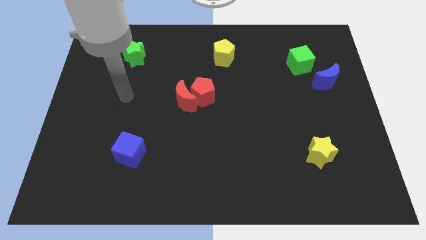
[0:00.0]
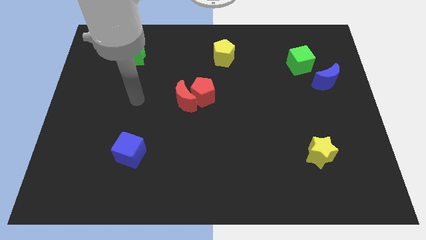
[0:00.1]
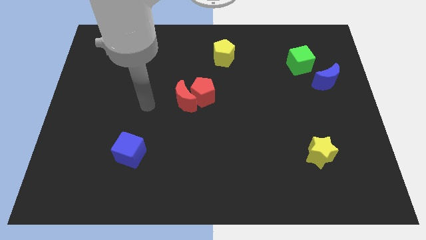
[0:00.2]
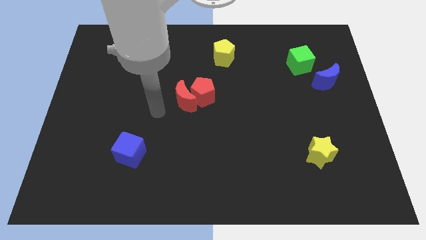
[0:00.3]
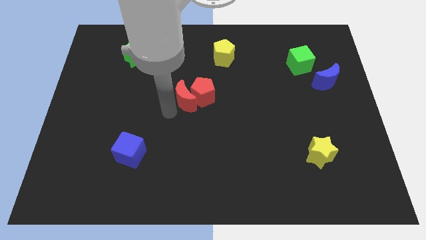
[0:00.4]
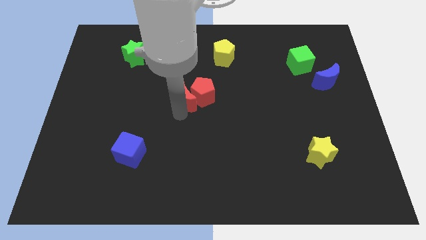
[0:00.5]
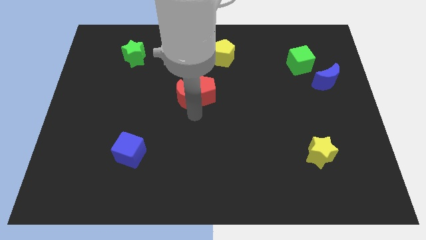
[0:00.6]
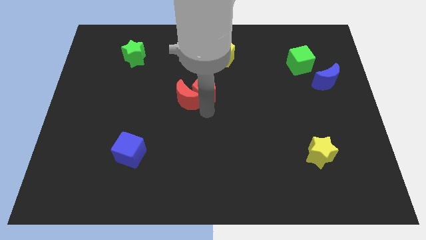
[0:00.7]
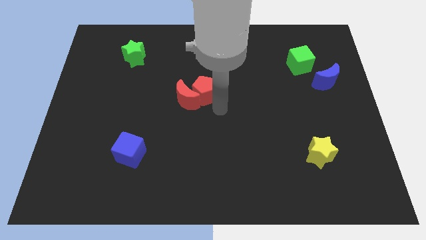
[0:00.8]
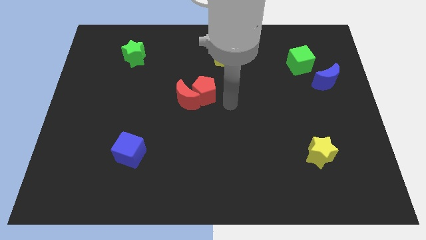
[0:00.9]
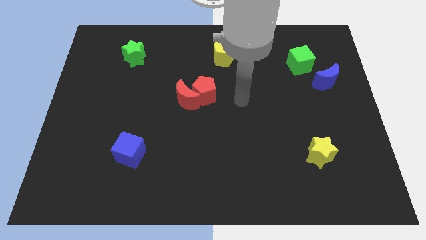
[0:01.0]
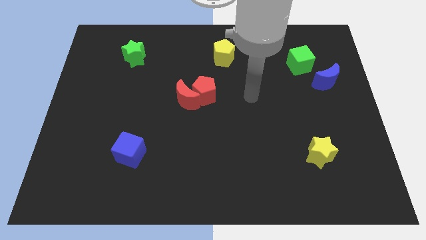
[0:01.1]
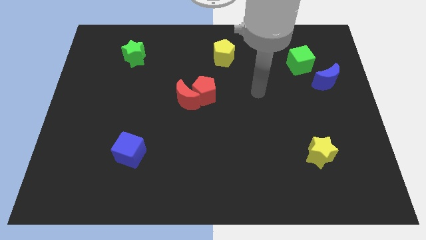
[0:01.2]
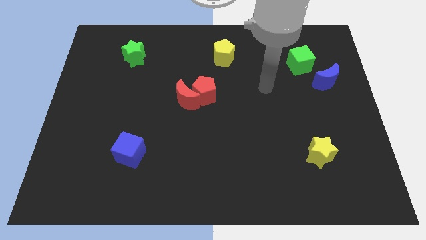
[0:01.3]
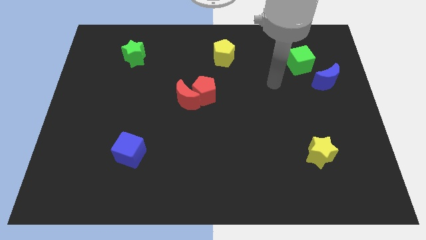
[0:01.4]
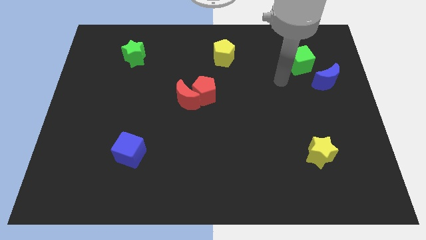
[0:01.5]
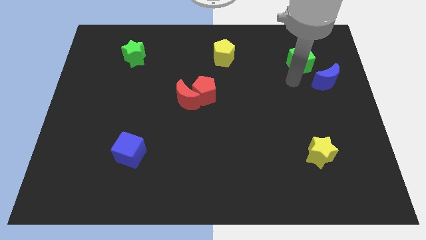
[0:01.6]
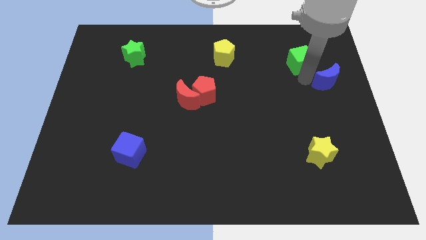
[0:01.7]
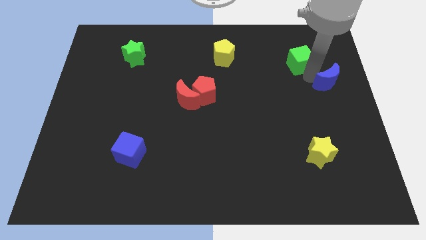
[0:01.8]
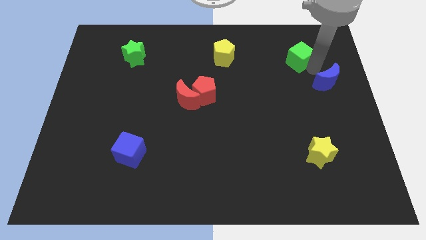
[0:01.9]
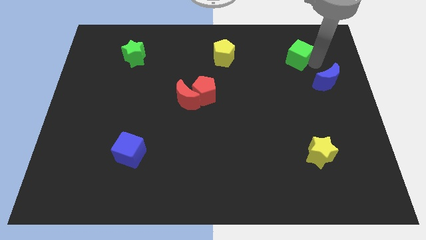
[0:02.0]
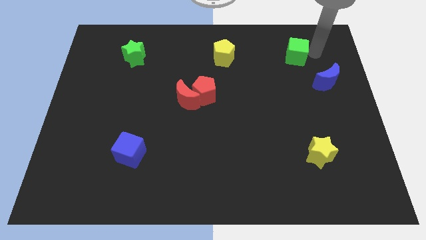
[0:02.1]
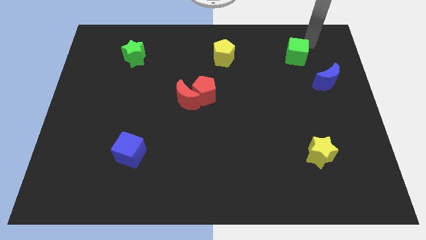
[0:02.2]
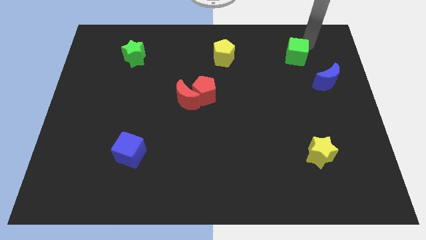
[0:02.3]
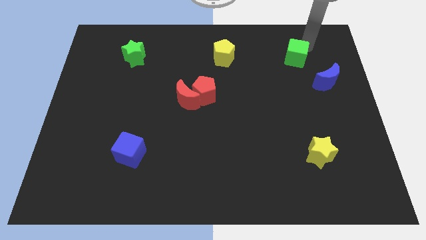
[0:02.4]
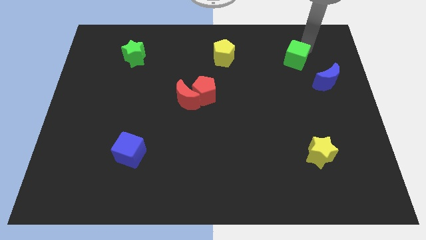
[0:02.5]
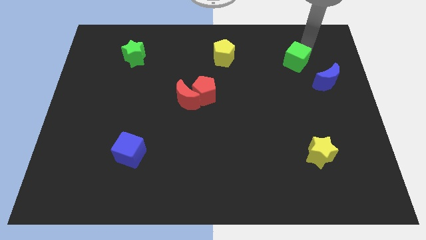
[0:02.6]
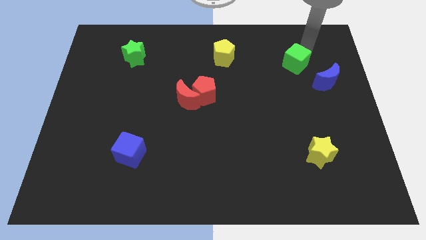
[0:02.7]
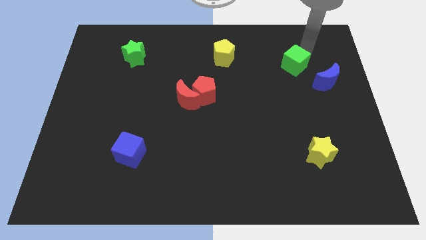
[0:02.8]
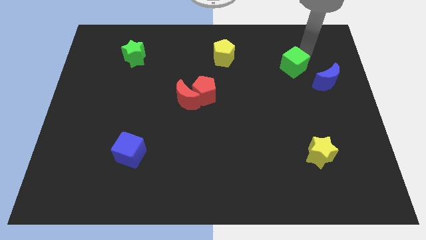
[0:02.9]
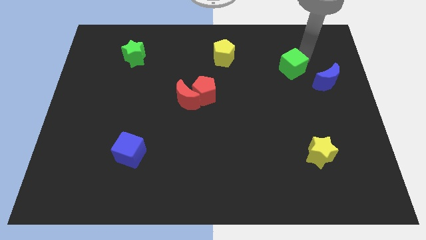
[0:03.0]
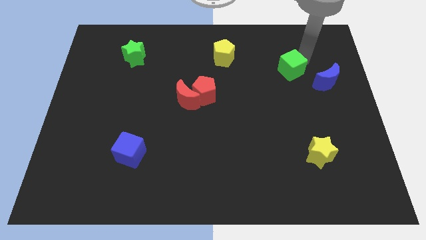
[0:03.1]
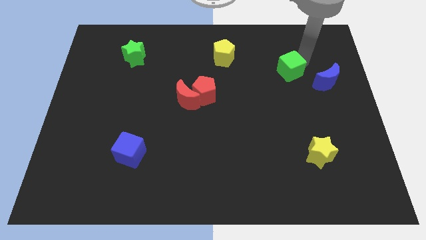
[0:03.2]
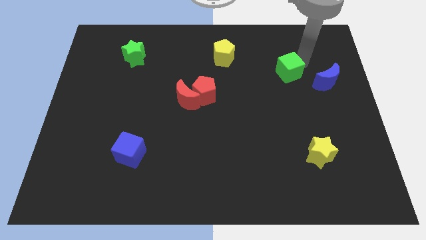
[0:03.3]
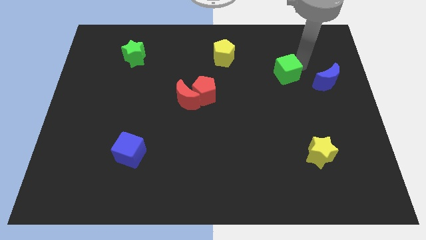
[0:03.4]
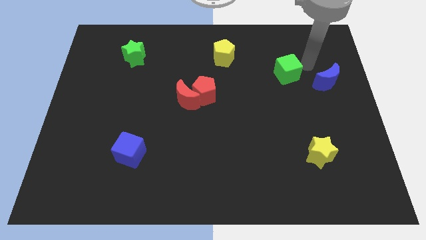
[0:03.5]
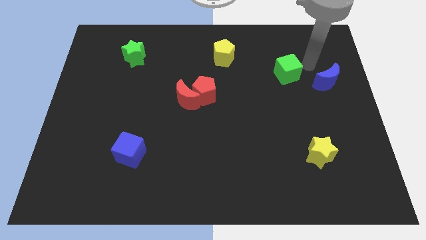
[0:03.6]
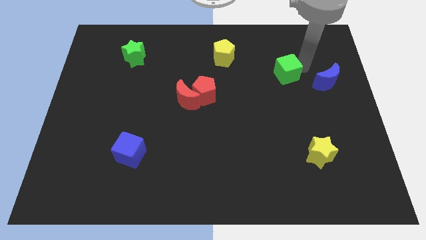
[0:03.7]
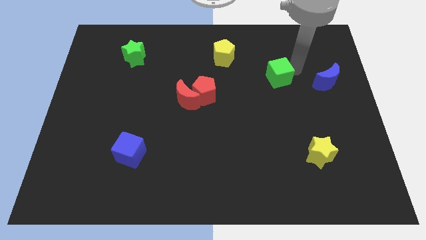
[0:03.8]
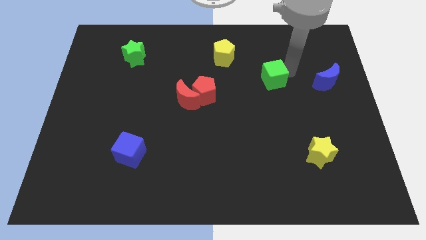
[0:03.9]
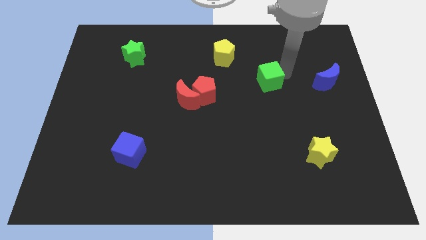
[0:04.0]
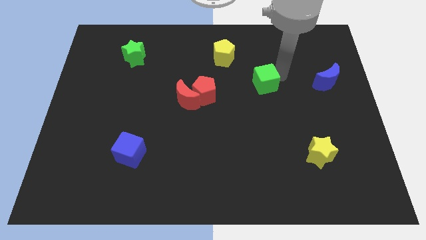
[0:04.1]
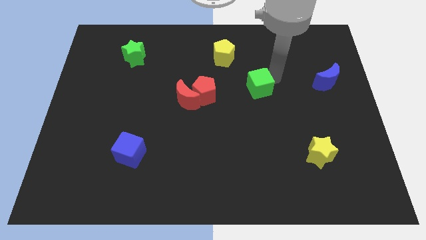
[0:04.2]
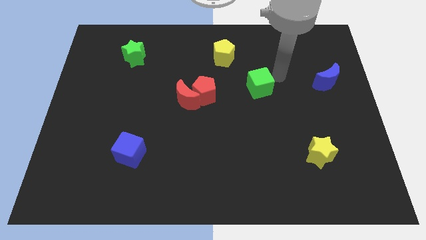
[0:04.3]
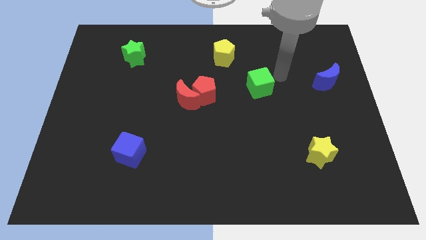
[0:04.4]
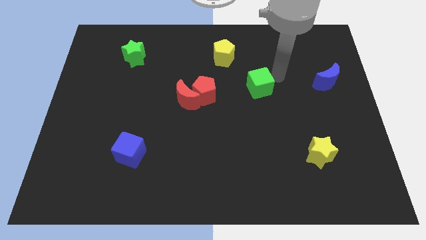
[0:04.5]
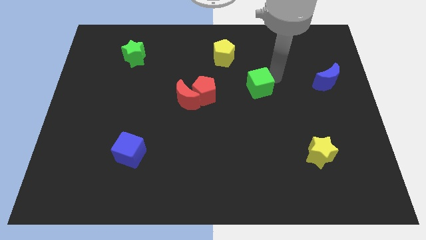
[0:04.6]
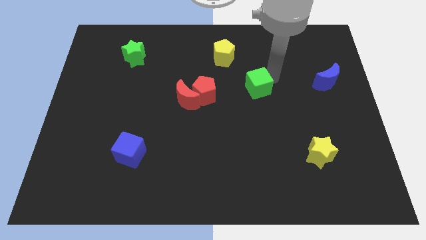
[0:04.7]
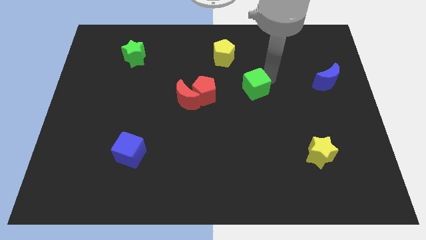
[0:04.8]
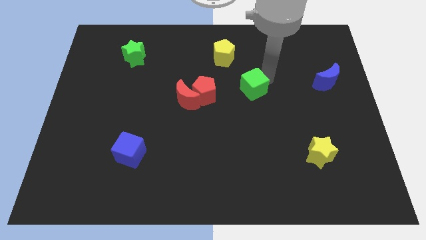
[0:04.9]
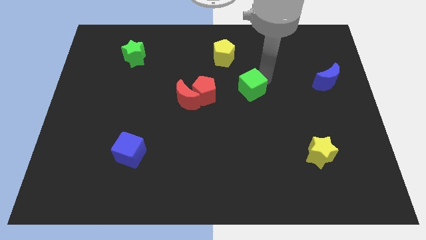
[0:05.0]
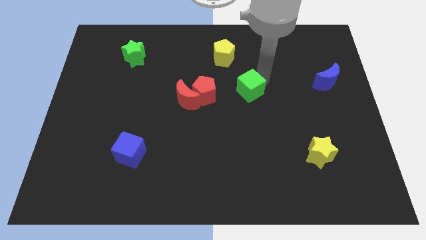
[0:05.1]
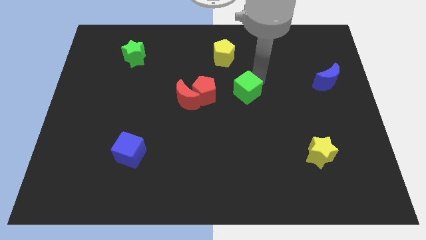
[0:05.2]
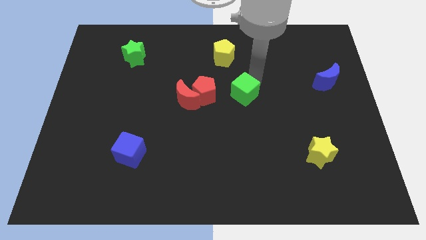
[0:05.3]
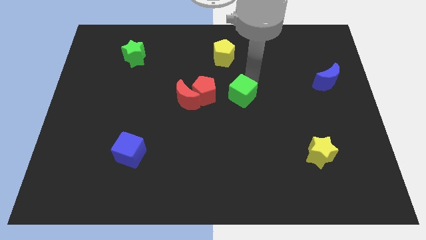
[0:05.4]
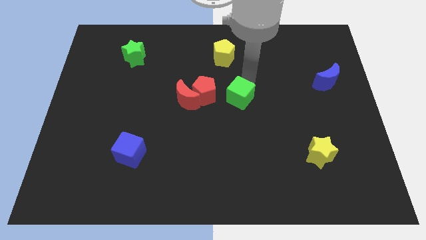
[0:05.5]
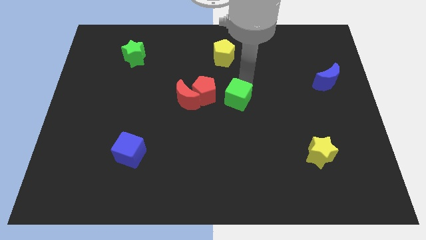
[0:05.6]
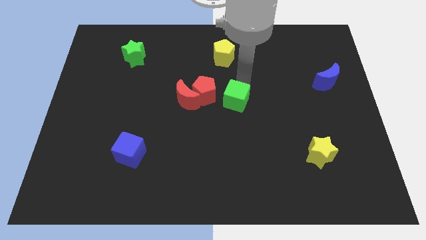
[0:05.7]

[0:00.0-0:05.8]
push the green cube down and then left

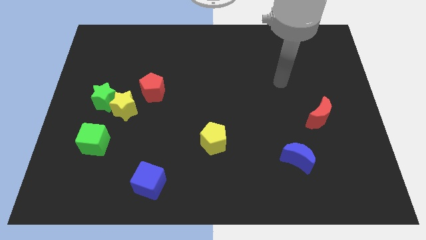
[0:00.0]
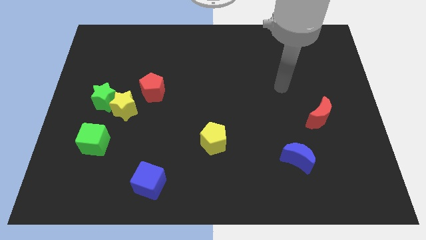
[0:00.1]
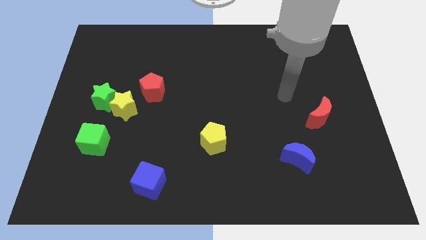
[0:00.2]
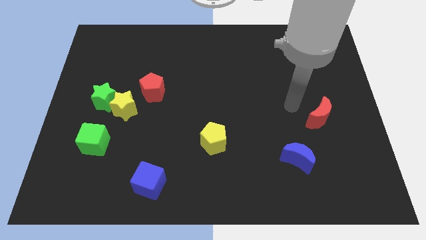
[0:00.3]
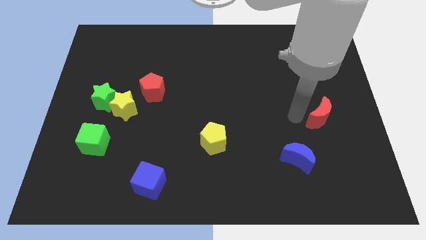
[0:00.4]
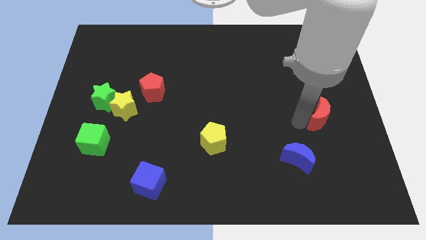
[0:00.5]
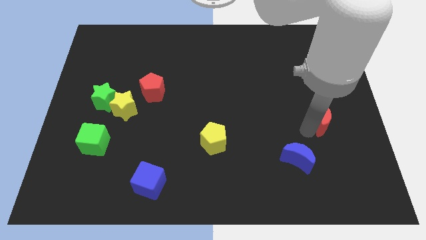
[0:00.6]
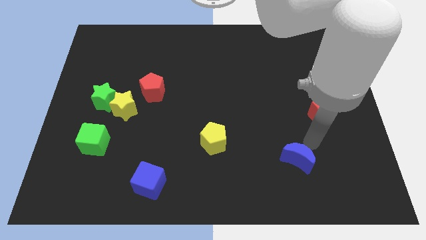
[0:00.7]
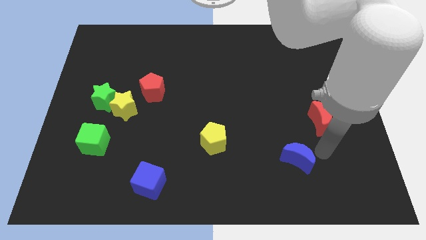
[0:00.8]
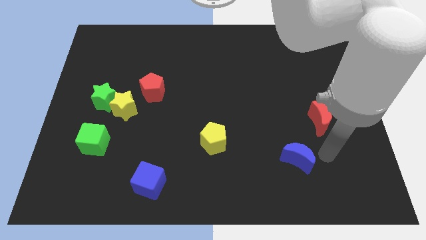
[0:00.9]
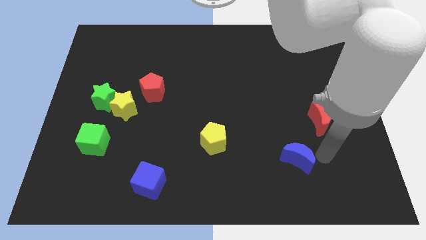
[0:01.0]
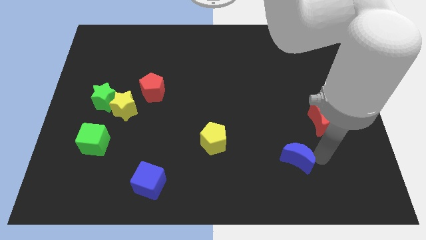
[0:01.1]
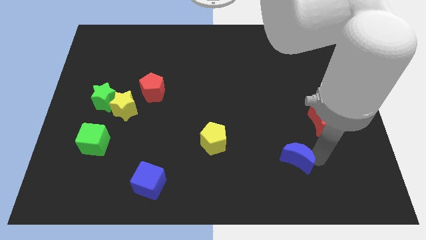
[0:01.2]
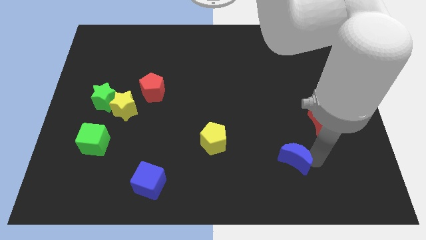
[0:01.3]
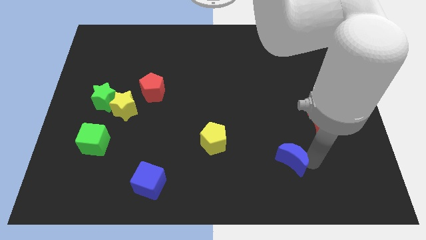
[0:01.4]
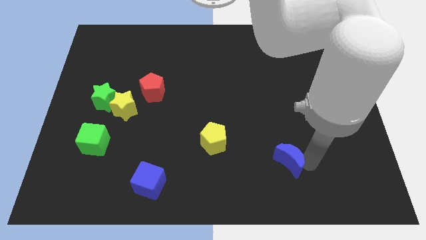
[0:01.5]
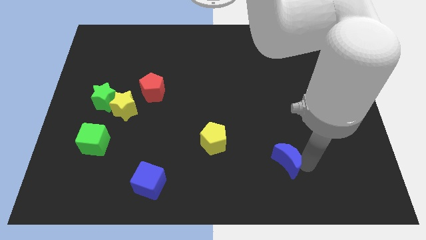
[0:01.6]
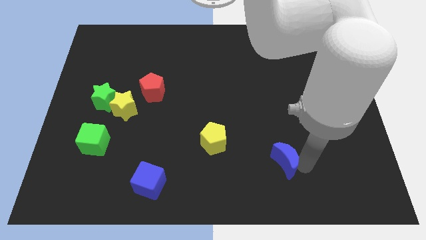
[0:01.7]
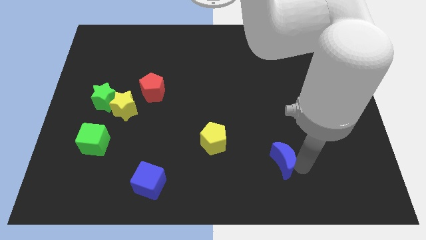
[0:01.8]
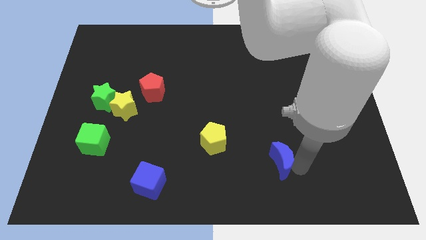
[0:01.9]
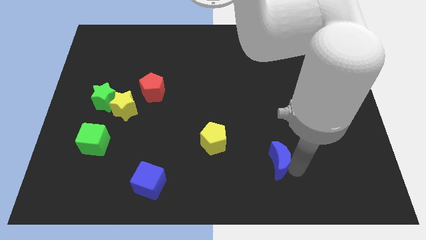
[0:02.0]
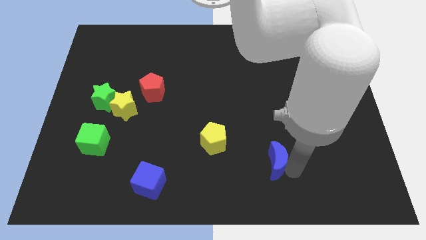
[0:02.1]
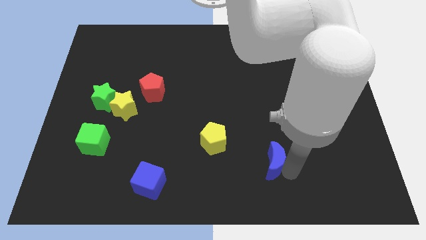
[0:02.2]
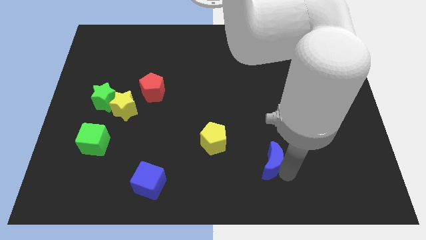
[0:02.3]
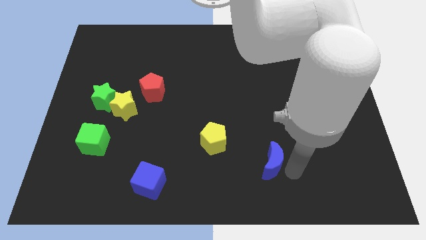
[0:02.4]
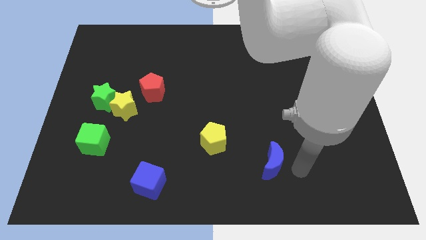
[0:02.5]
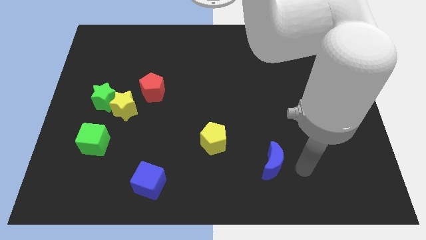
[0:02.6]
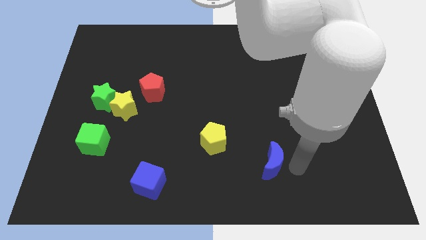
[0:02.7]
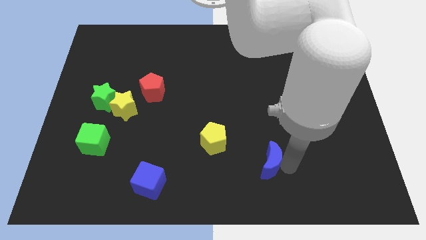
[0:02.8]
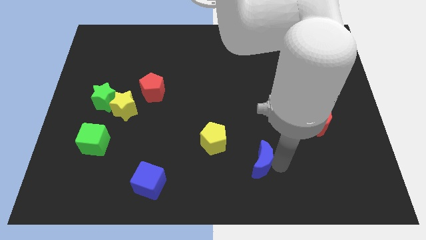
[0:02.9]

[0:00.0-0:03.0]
slide the blue moon to the left a little
